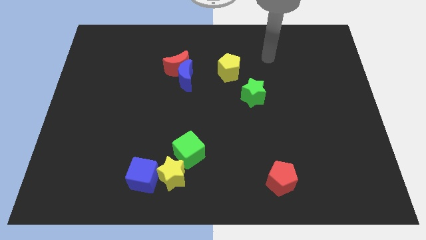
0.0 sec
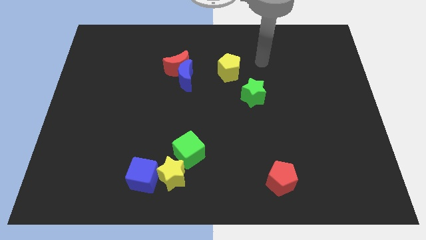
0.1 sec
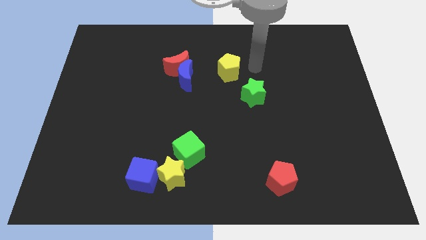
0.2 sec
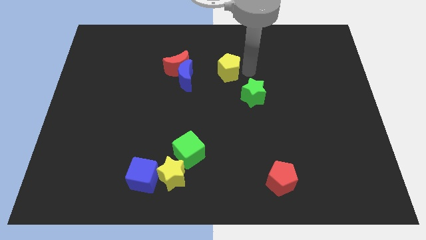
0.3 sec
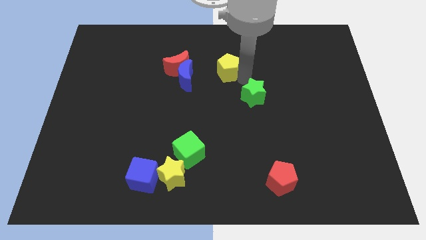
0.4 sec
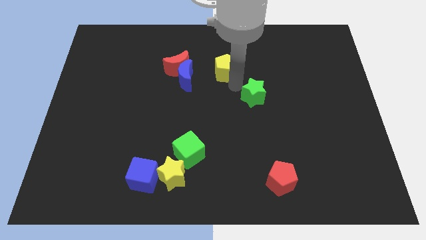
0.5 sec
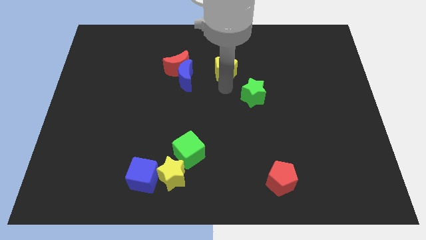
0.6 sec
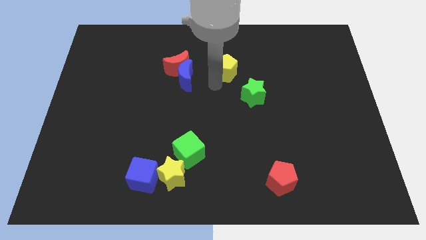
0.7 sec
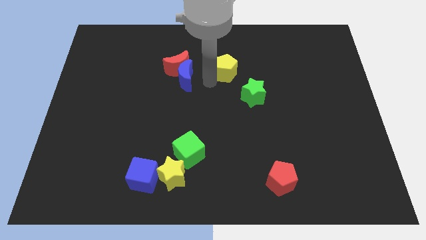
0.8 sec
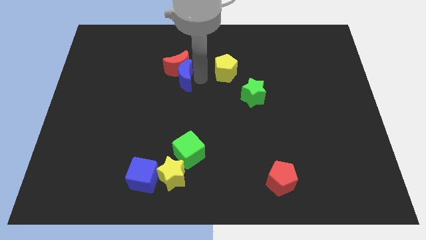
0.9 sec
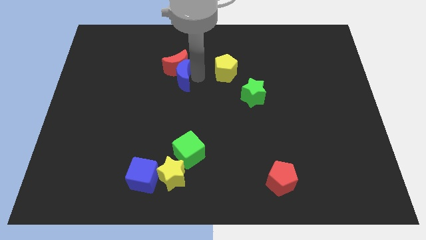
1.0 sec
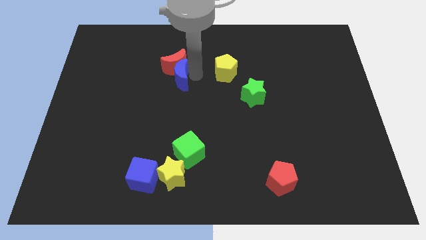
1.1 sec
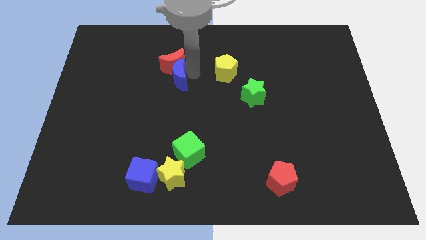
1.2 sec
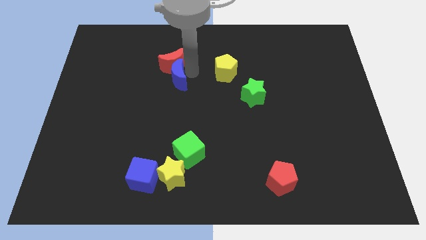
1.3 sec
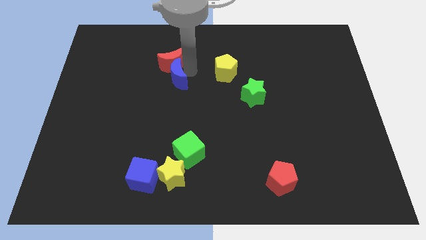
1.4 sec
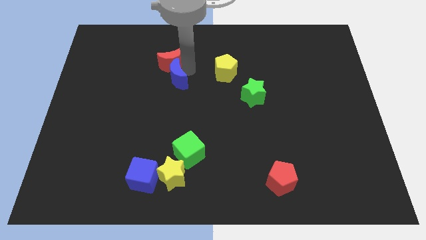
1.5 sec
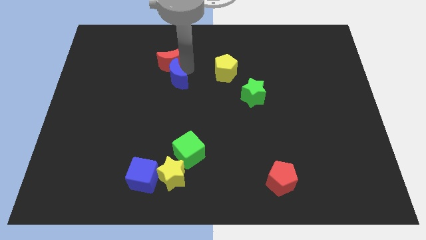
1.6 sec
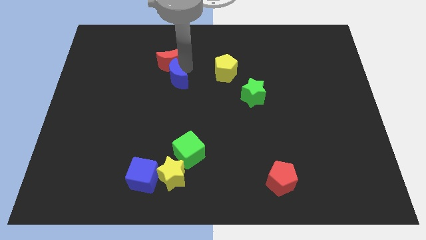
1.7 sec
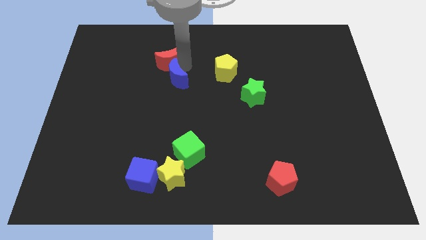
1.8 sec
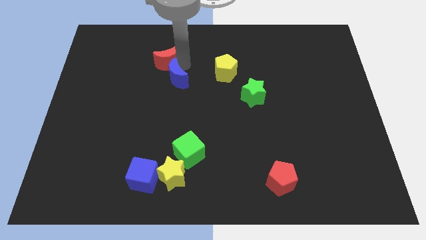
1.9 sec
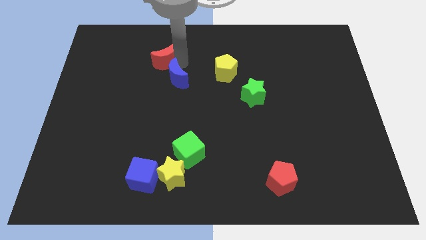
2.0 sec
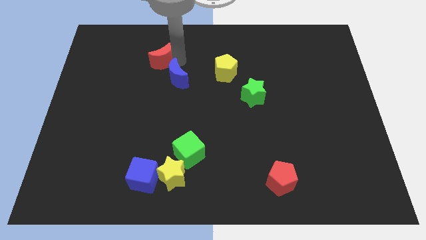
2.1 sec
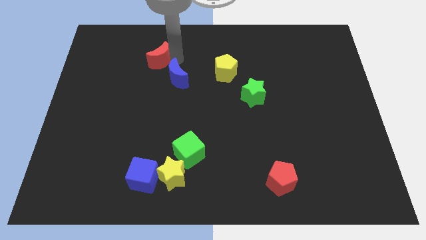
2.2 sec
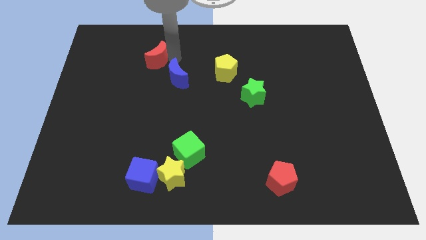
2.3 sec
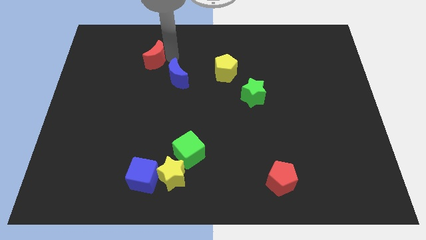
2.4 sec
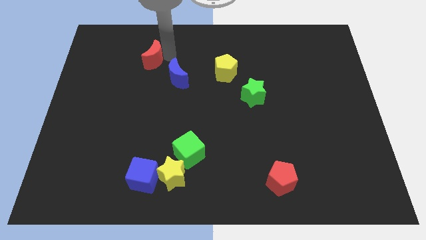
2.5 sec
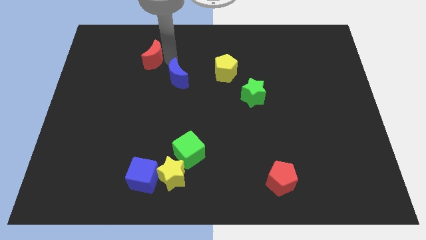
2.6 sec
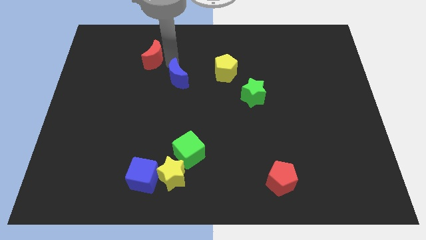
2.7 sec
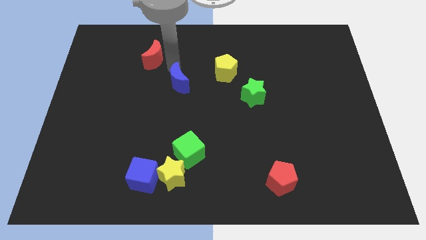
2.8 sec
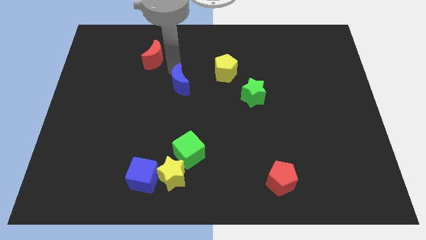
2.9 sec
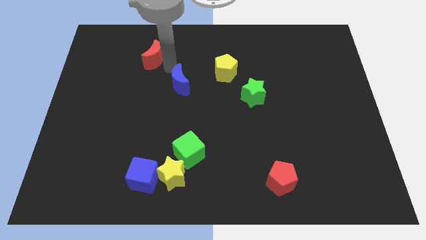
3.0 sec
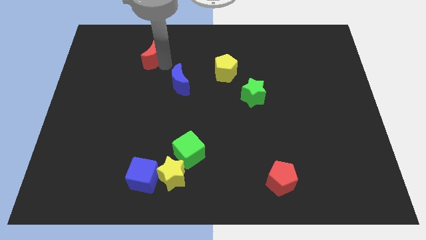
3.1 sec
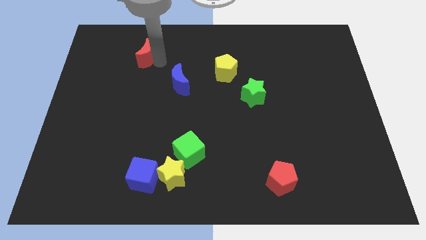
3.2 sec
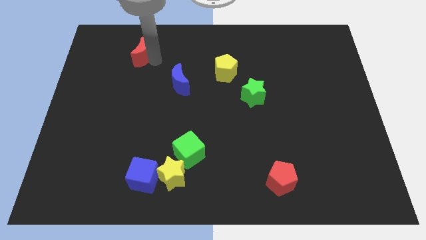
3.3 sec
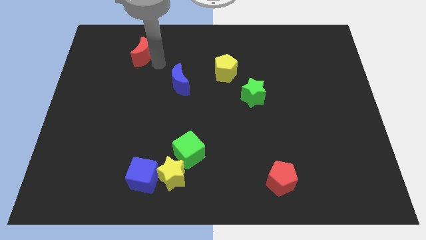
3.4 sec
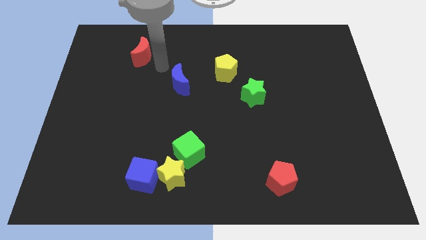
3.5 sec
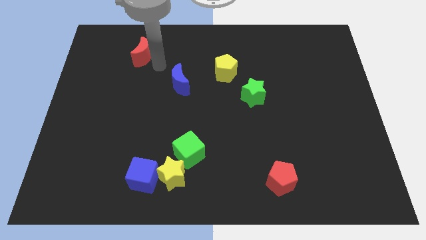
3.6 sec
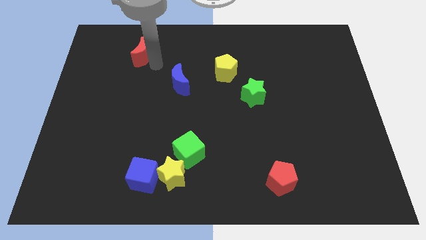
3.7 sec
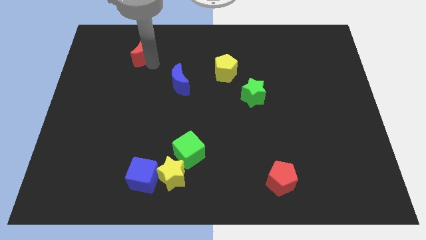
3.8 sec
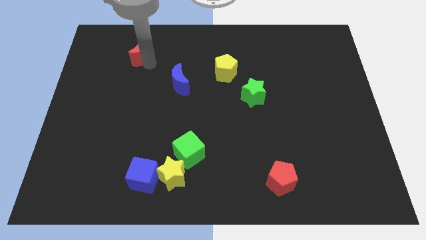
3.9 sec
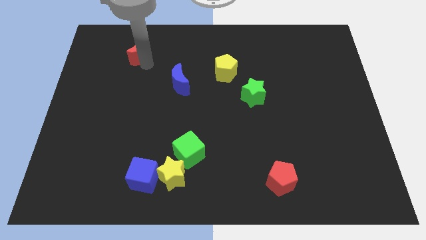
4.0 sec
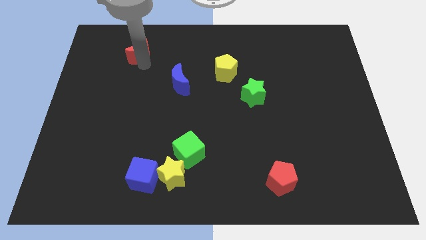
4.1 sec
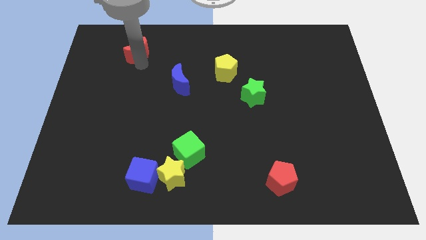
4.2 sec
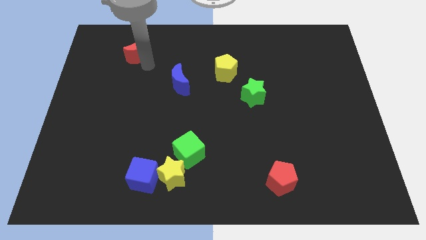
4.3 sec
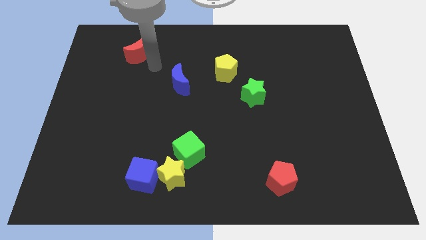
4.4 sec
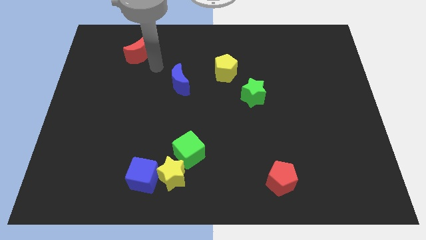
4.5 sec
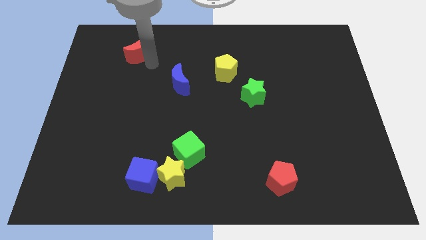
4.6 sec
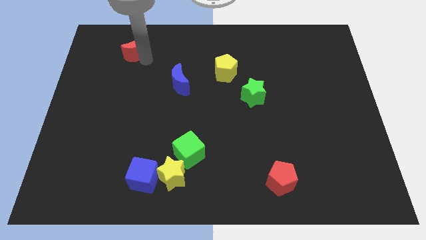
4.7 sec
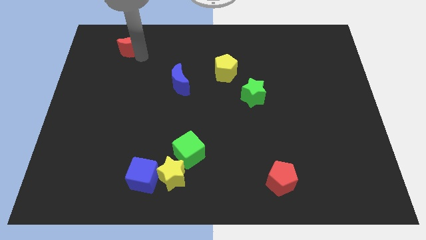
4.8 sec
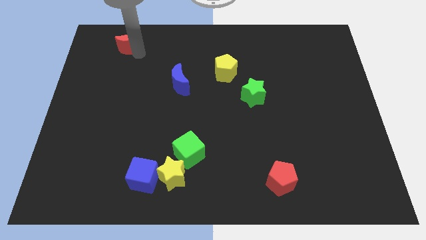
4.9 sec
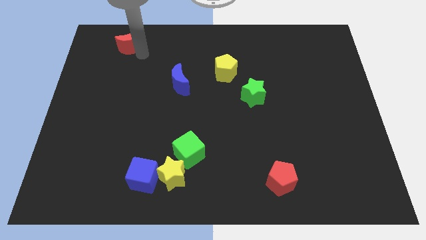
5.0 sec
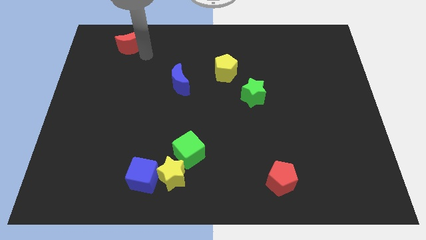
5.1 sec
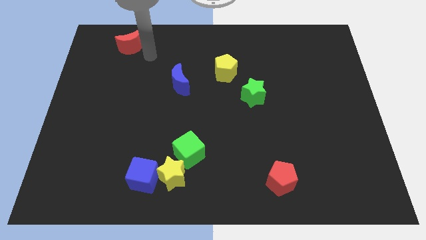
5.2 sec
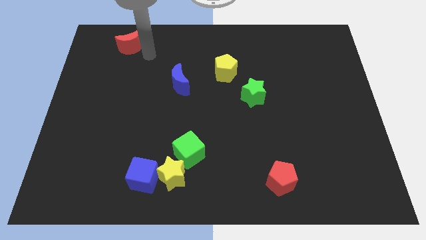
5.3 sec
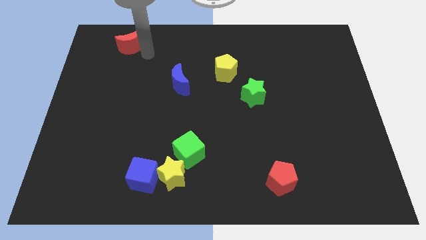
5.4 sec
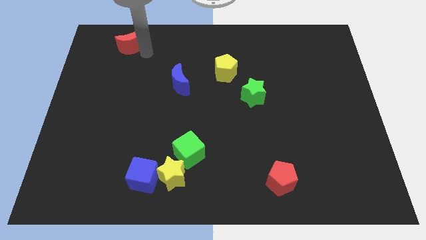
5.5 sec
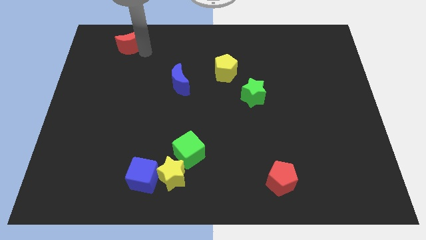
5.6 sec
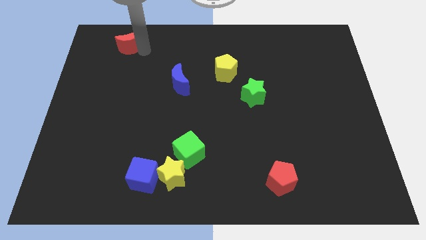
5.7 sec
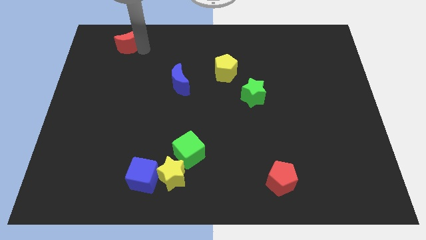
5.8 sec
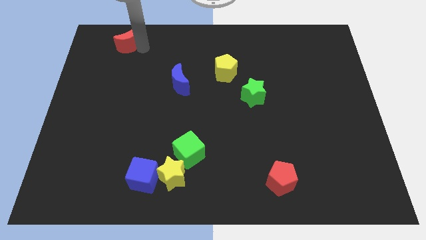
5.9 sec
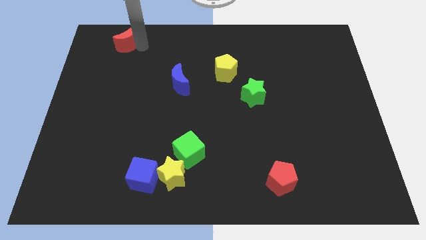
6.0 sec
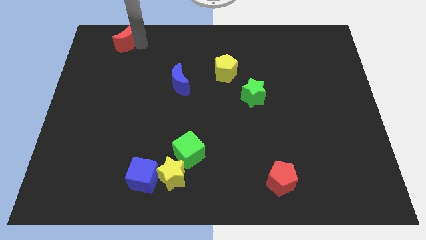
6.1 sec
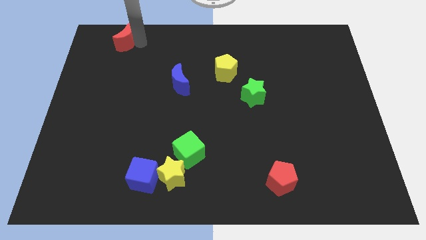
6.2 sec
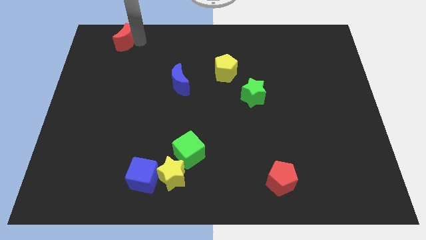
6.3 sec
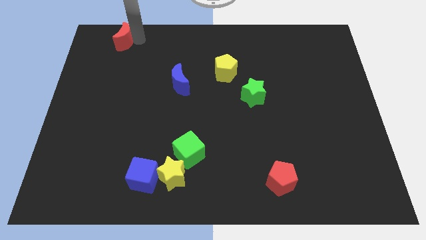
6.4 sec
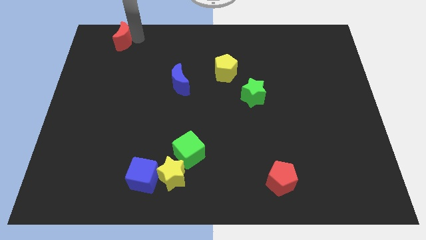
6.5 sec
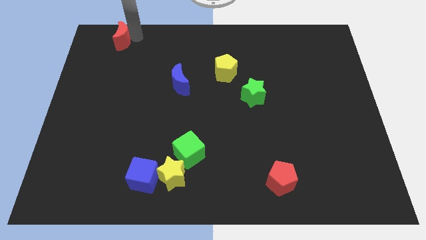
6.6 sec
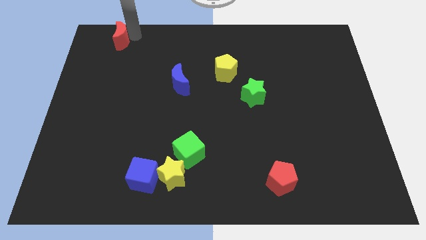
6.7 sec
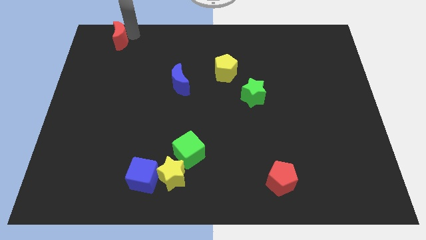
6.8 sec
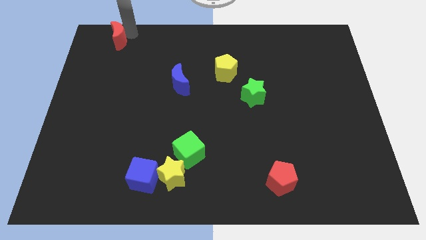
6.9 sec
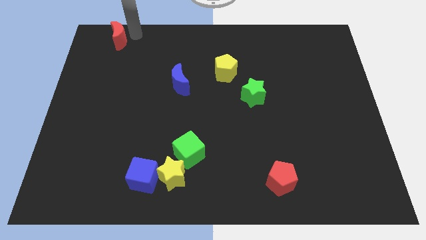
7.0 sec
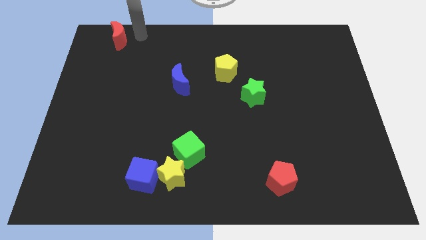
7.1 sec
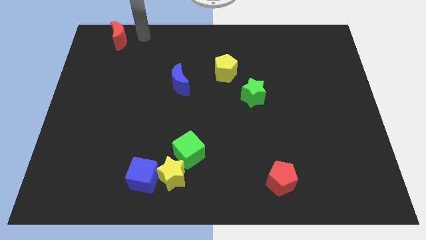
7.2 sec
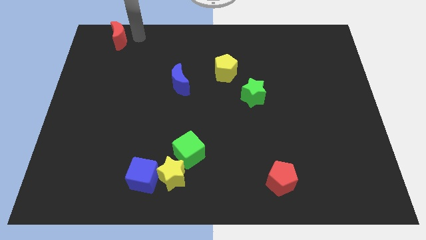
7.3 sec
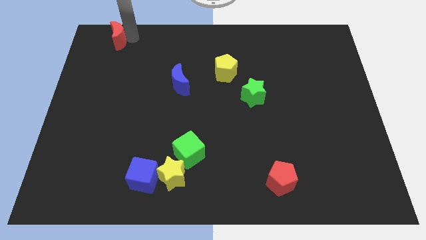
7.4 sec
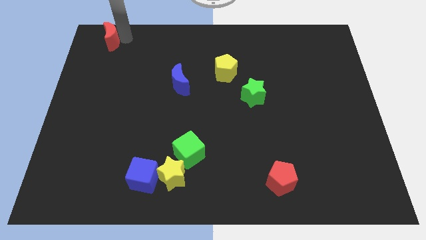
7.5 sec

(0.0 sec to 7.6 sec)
push the red moon to the top left of the board
